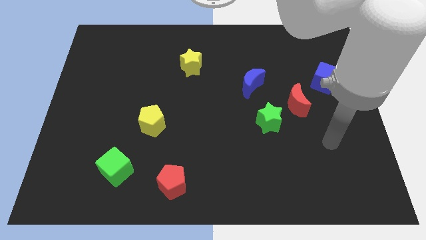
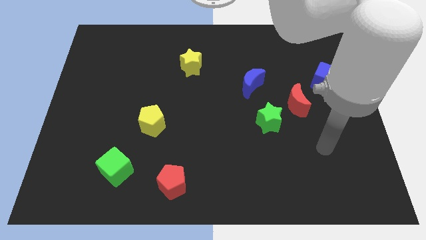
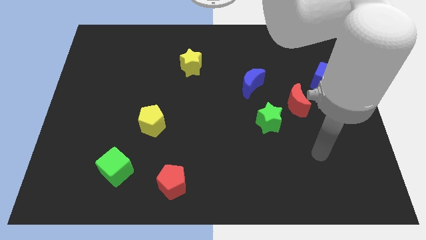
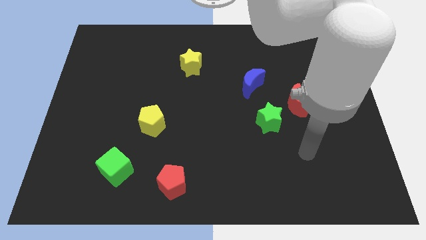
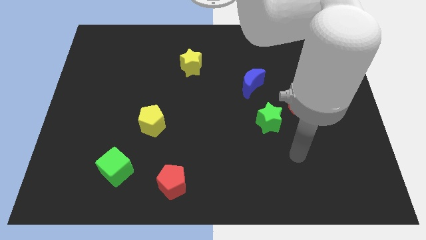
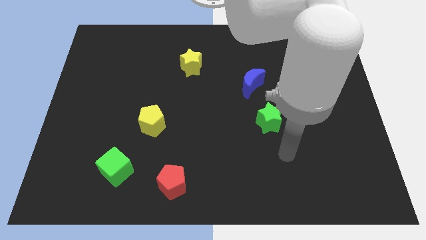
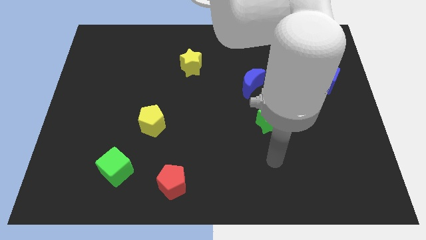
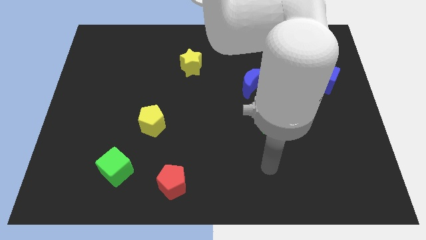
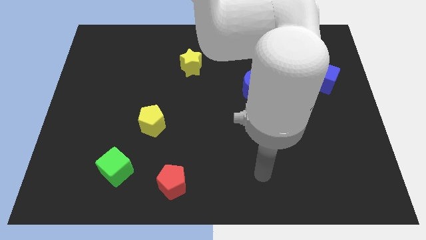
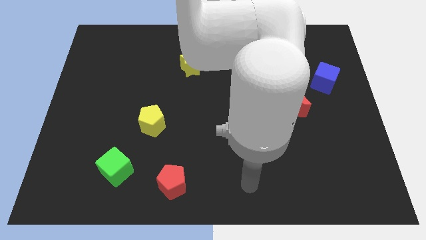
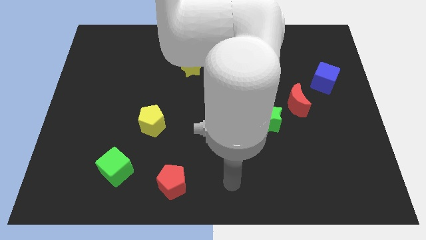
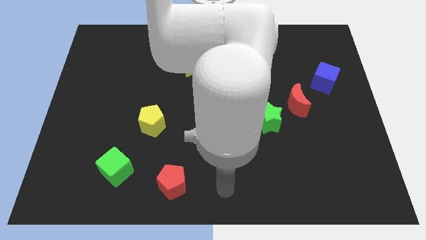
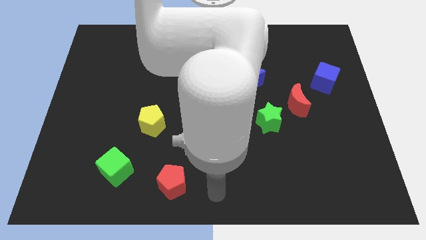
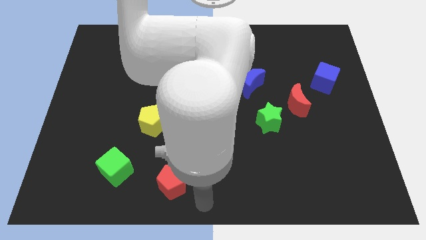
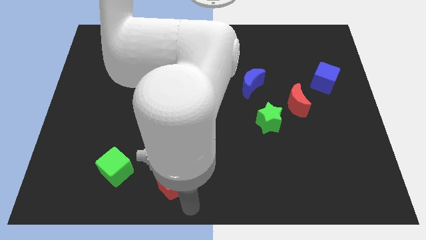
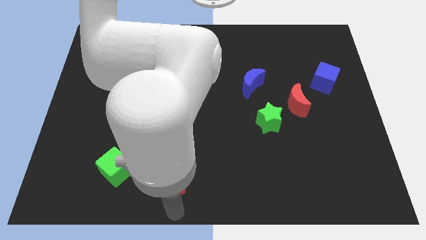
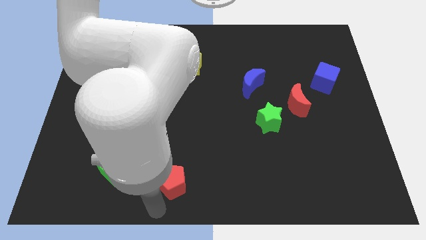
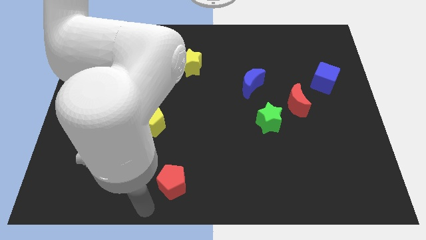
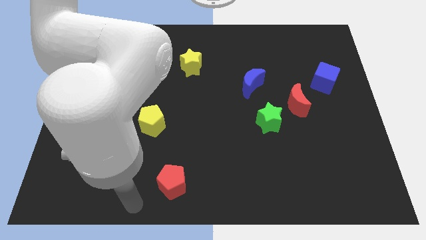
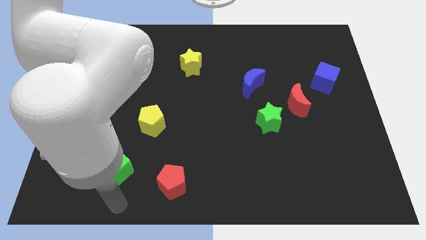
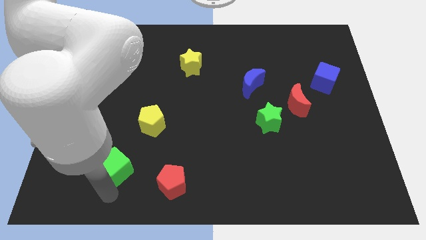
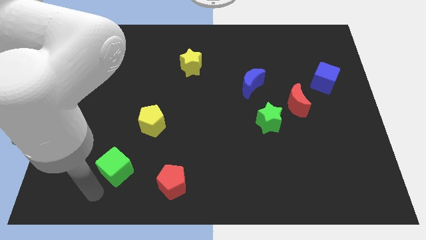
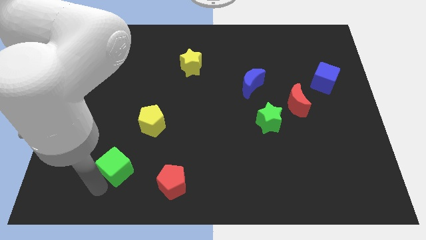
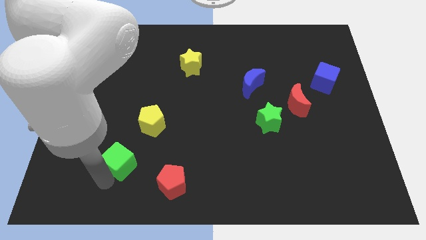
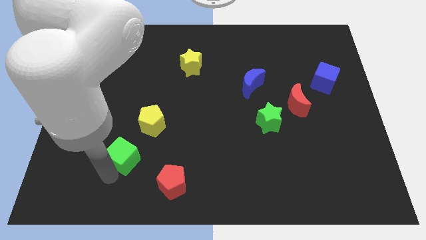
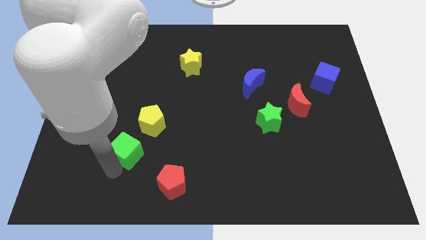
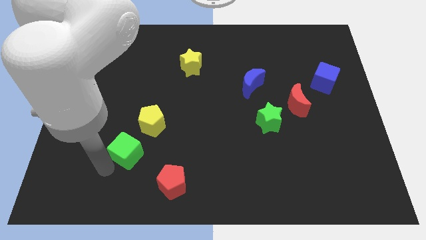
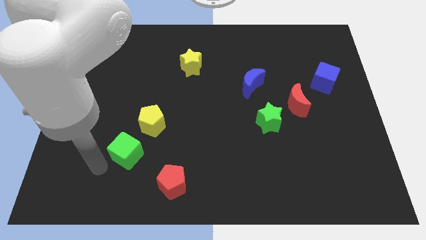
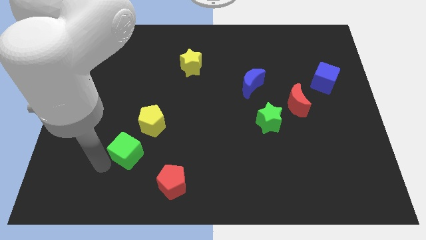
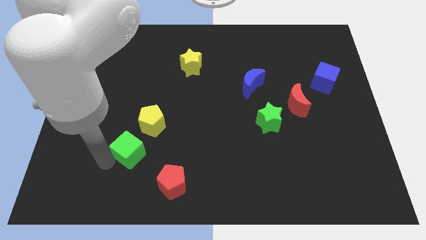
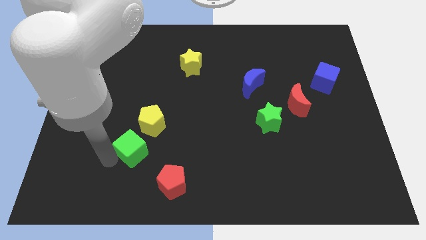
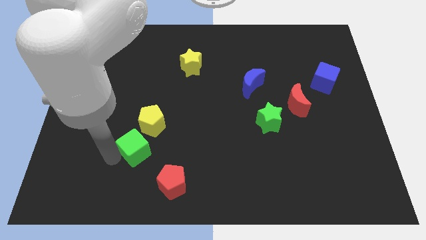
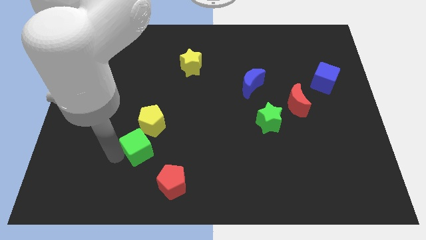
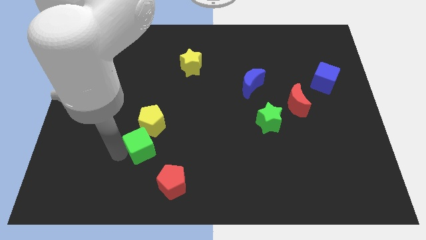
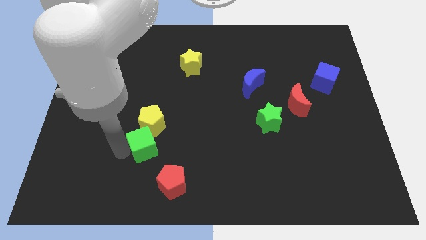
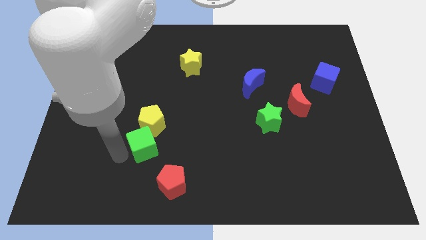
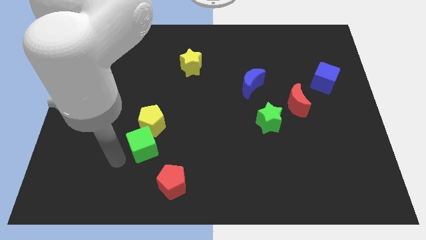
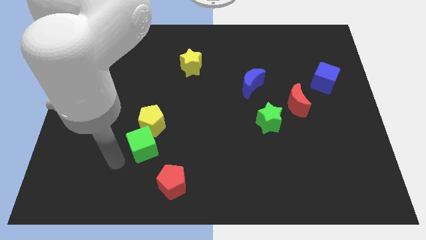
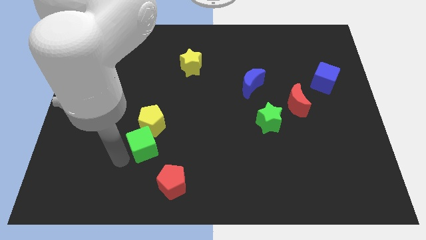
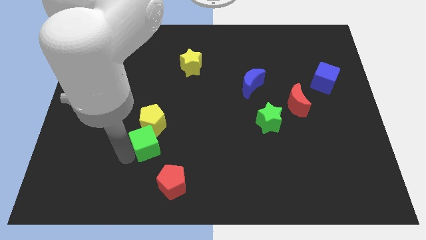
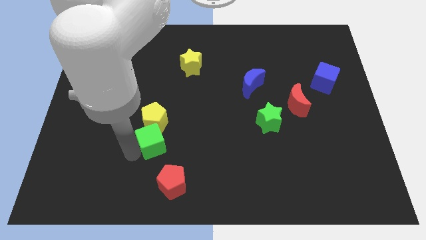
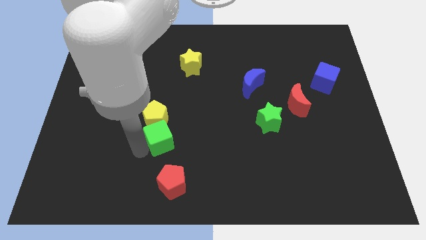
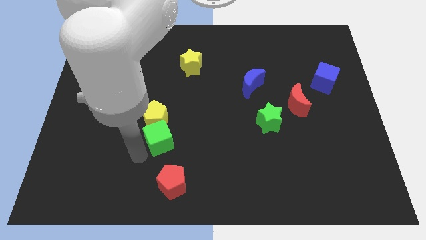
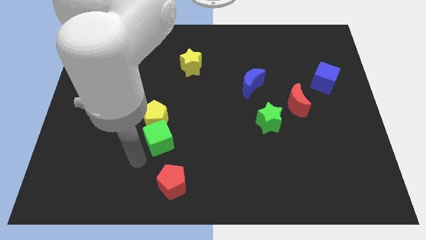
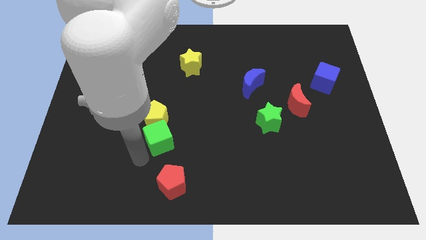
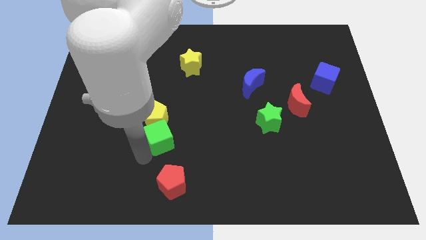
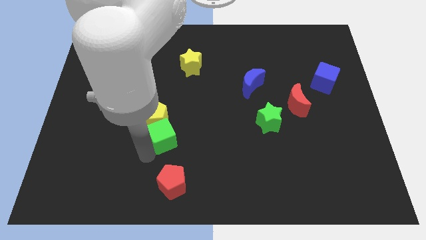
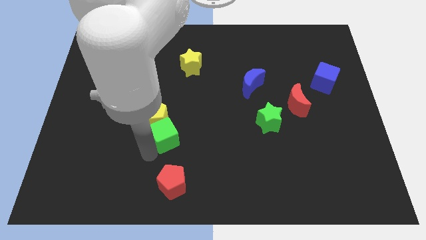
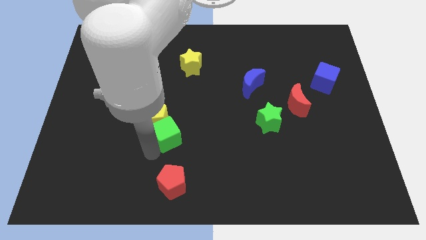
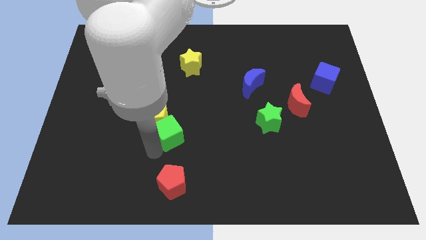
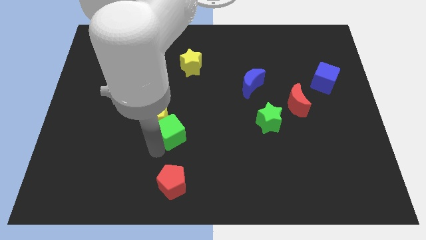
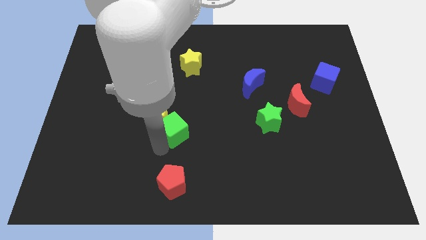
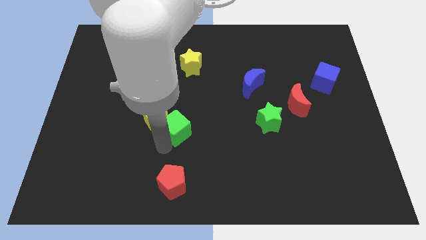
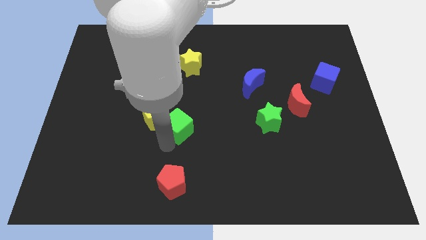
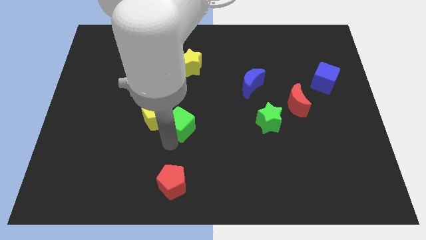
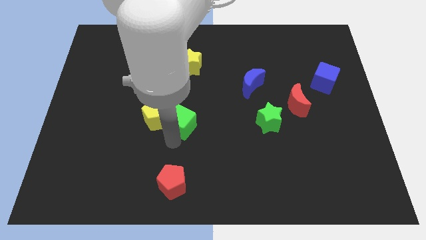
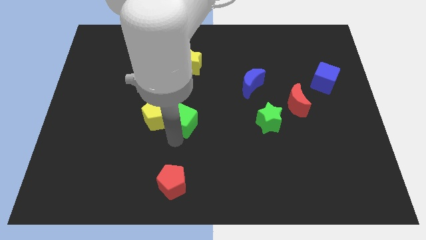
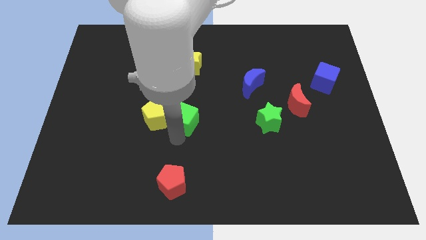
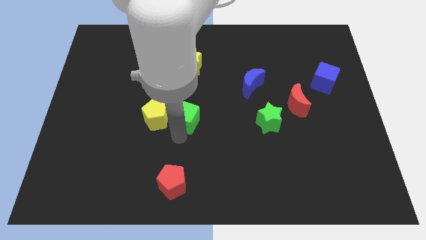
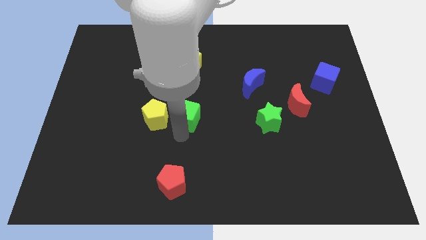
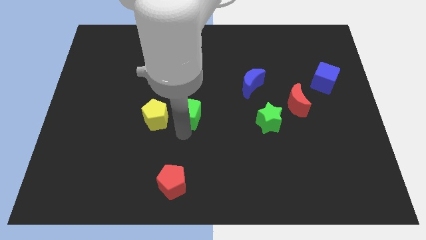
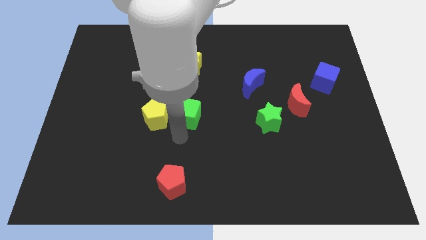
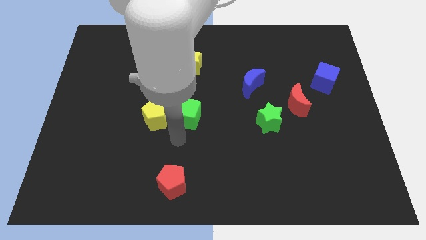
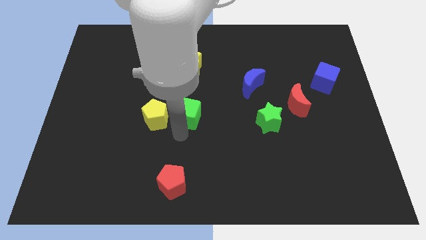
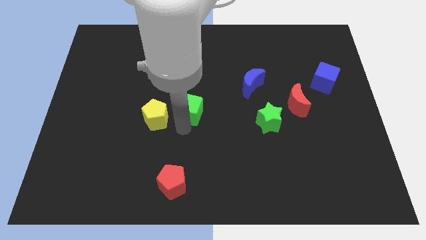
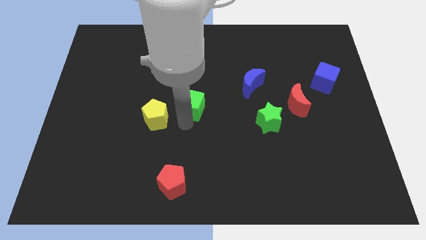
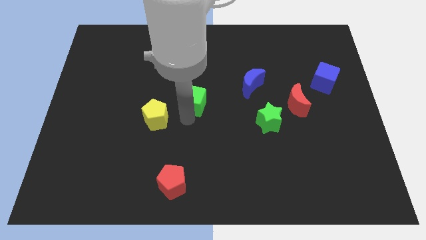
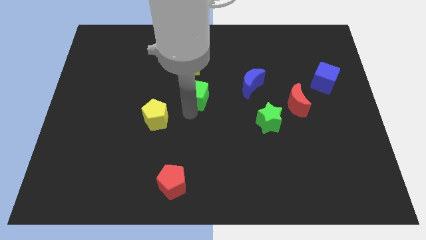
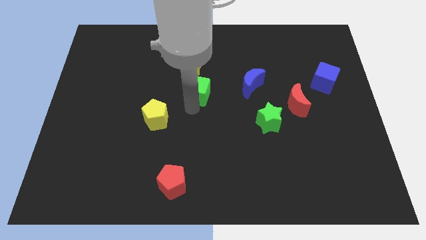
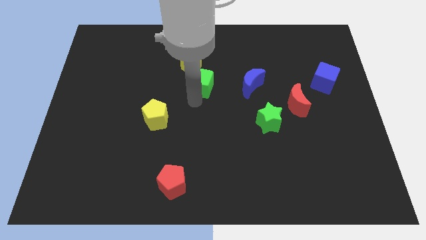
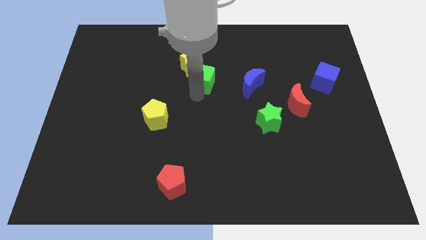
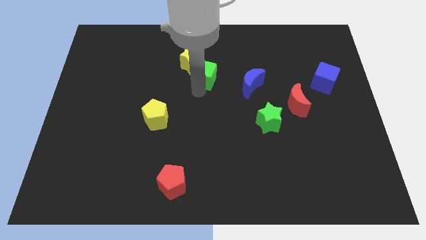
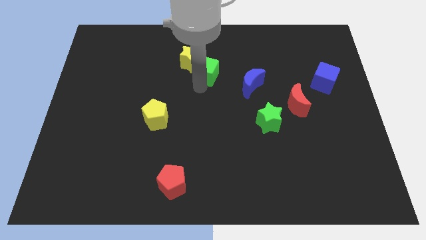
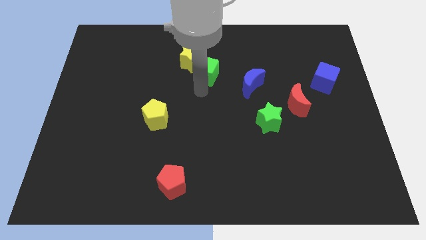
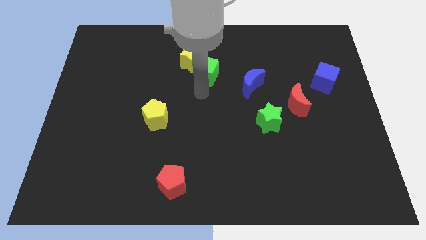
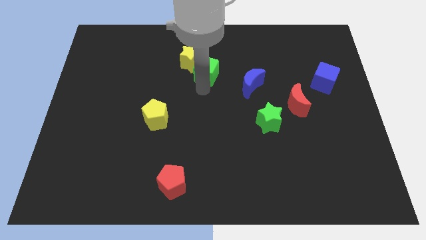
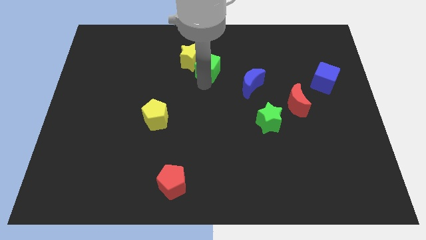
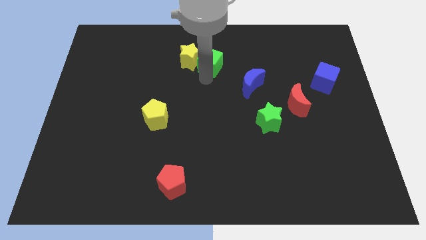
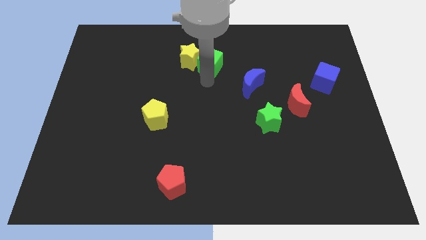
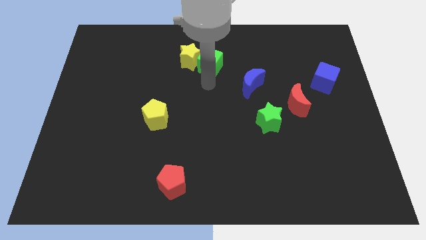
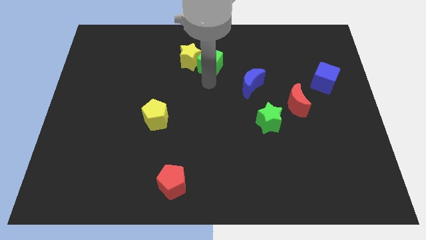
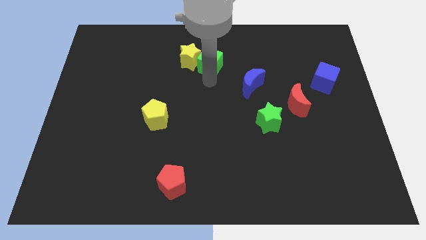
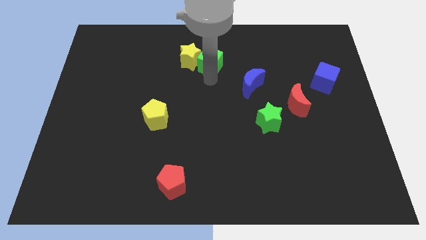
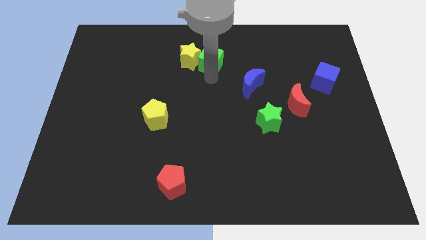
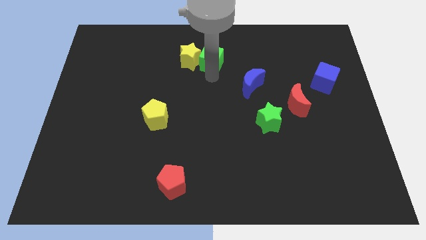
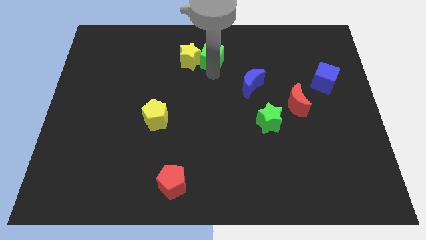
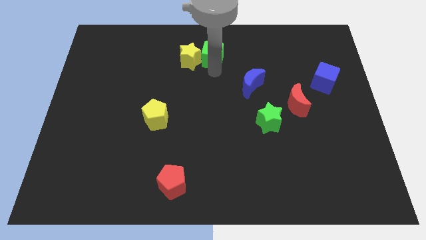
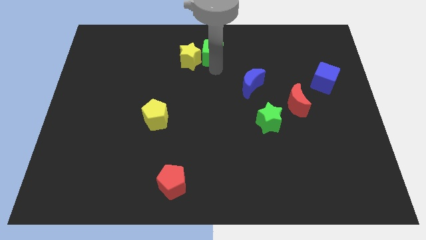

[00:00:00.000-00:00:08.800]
move the green cube to the top
